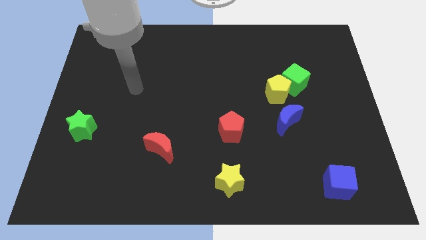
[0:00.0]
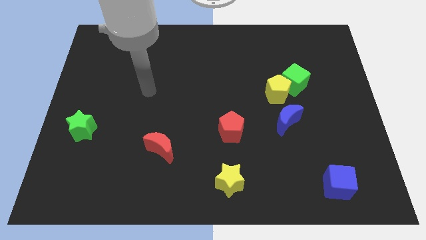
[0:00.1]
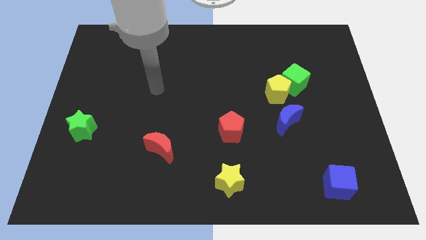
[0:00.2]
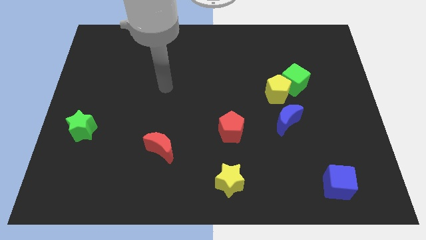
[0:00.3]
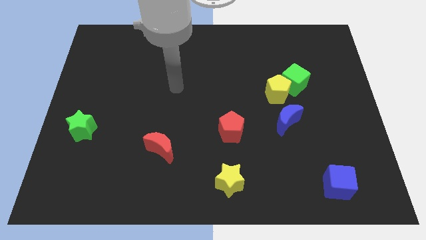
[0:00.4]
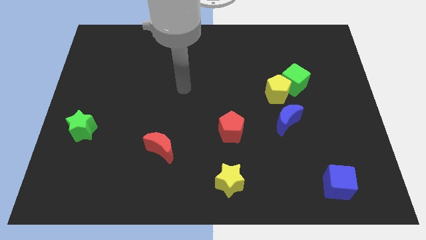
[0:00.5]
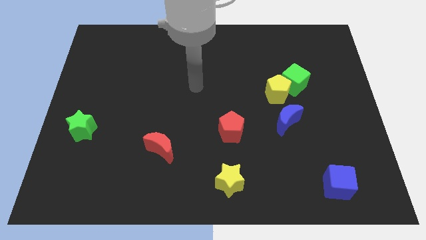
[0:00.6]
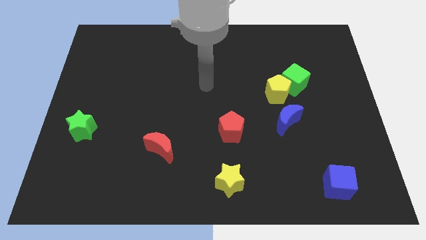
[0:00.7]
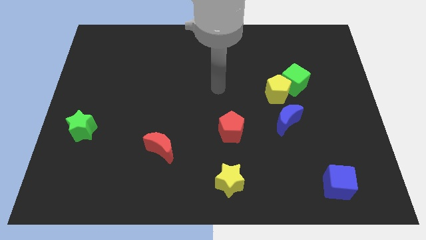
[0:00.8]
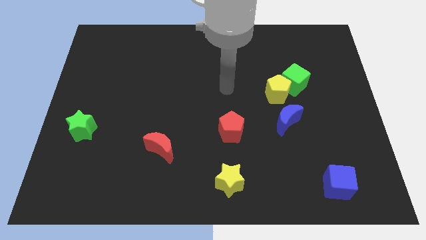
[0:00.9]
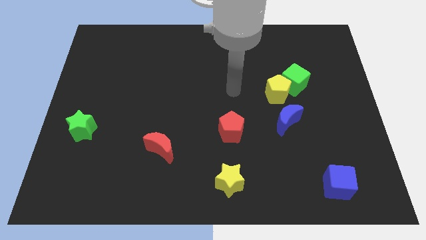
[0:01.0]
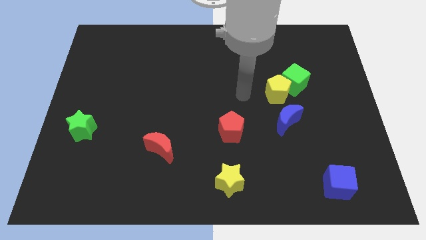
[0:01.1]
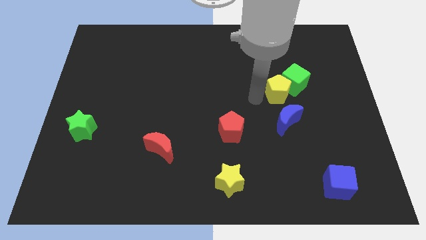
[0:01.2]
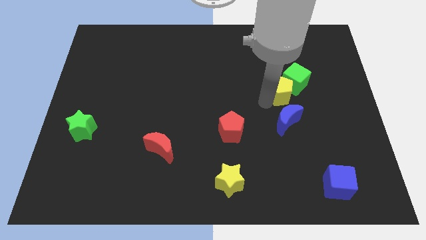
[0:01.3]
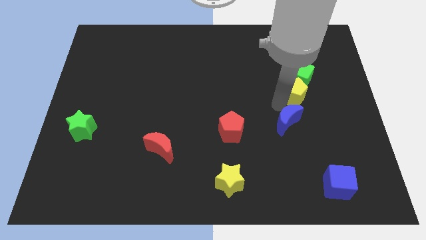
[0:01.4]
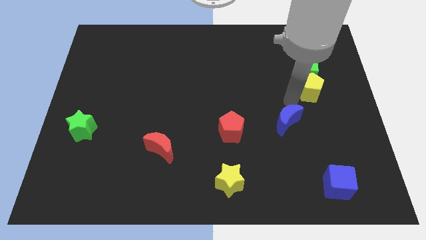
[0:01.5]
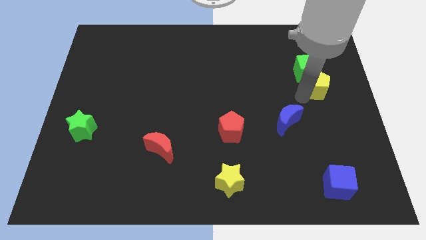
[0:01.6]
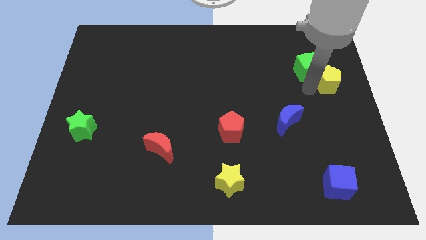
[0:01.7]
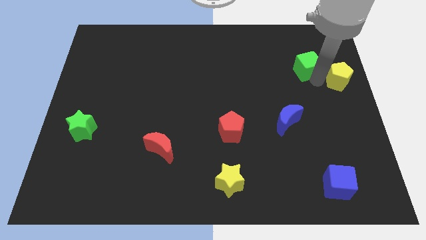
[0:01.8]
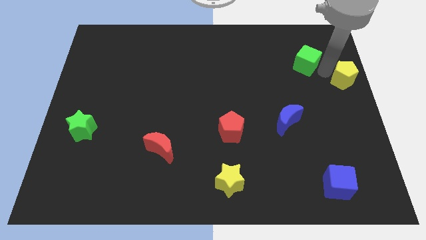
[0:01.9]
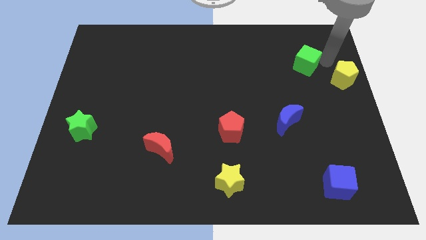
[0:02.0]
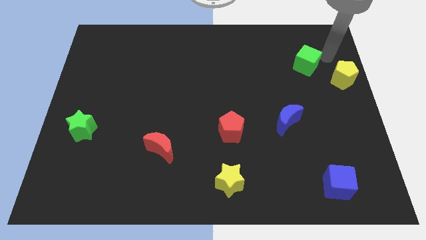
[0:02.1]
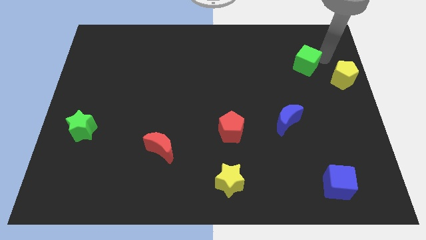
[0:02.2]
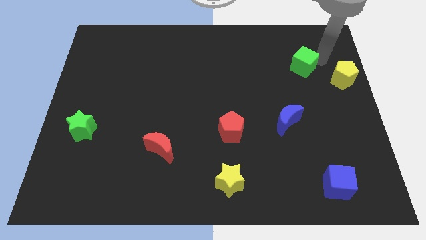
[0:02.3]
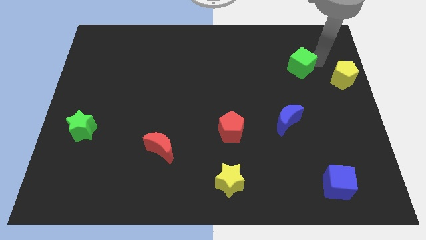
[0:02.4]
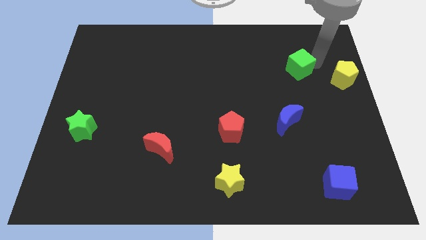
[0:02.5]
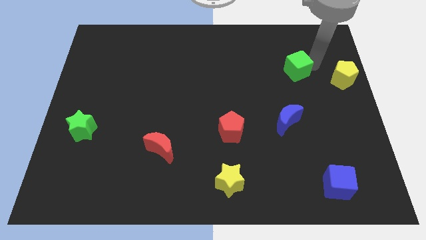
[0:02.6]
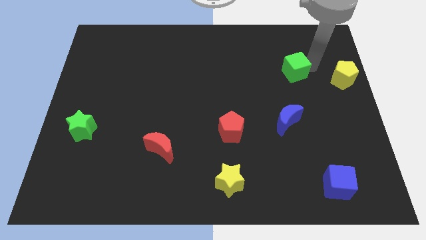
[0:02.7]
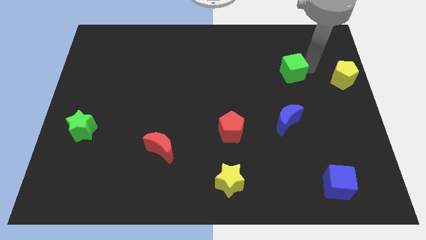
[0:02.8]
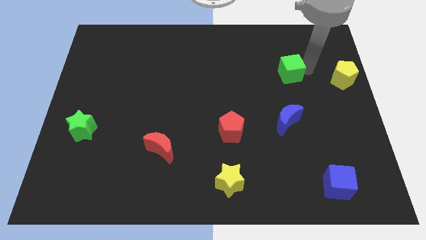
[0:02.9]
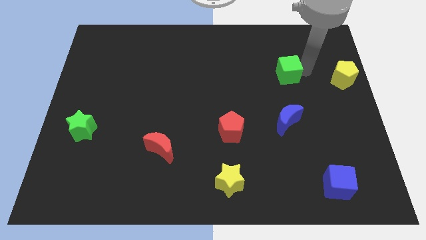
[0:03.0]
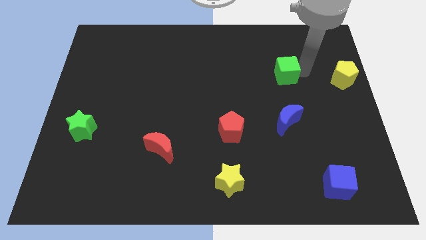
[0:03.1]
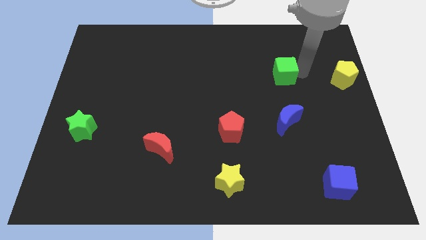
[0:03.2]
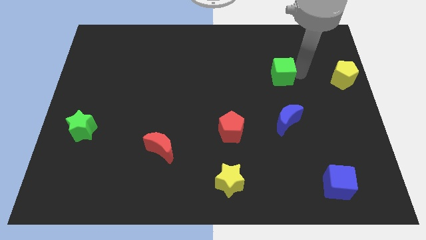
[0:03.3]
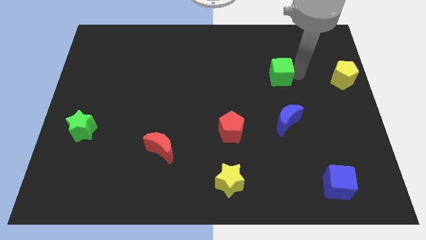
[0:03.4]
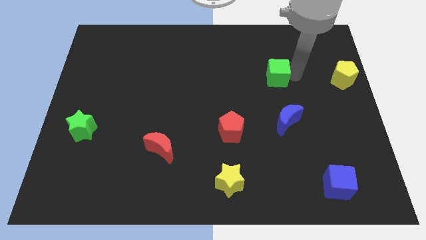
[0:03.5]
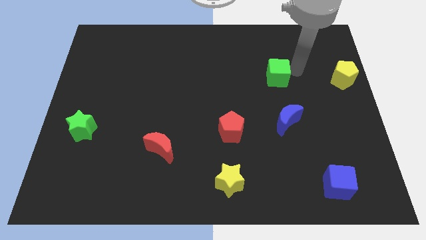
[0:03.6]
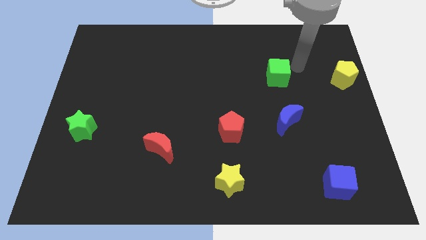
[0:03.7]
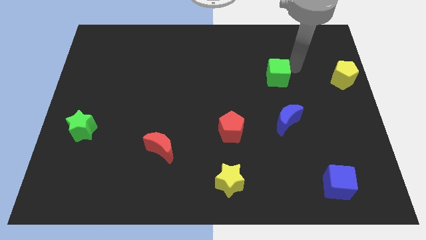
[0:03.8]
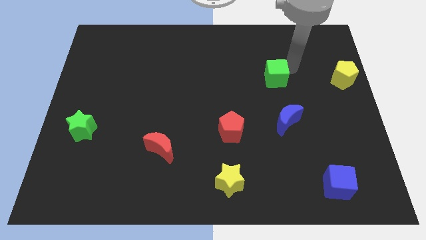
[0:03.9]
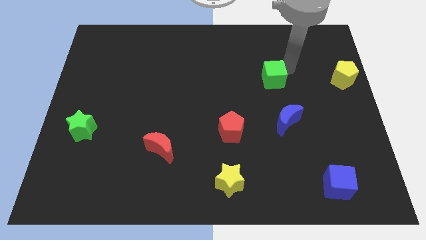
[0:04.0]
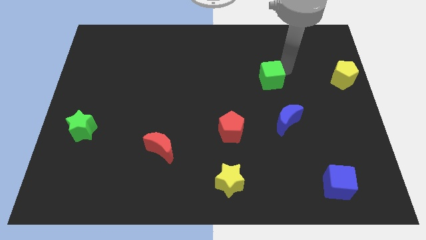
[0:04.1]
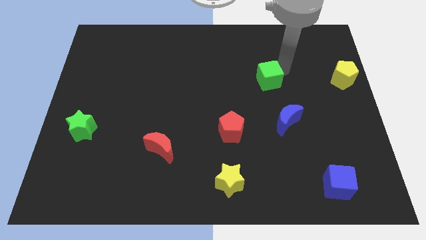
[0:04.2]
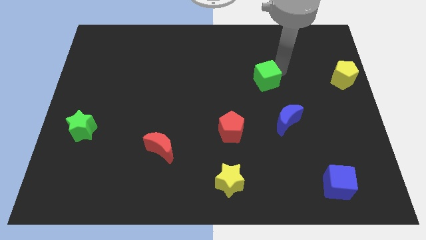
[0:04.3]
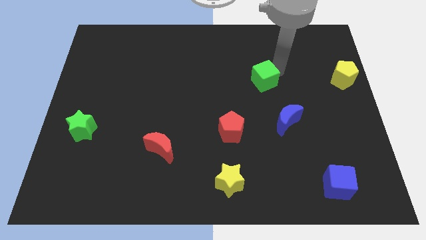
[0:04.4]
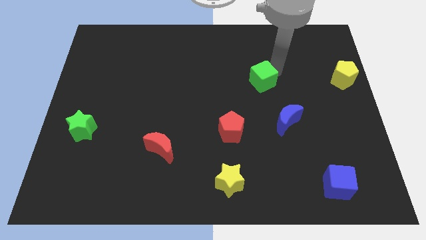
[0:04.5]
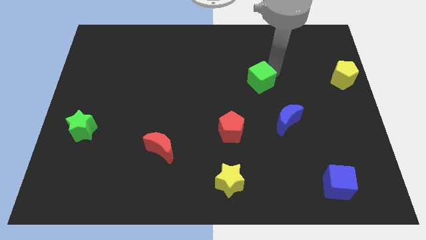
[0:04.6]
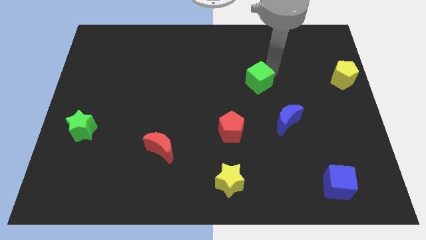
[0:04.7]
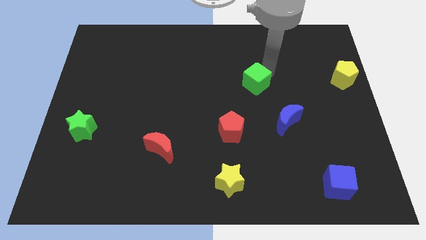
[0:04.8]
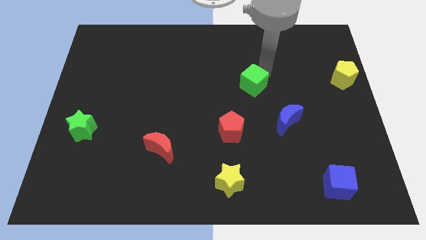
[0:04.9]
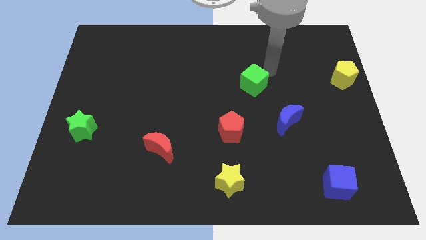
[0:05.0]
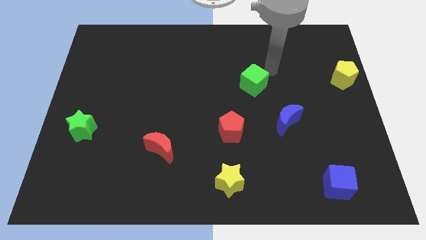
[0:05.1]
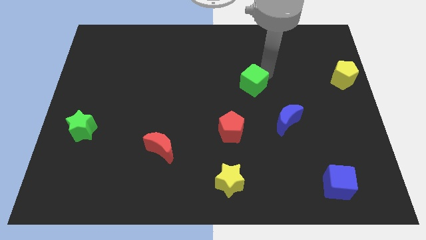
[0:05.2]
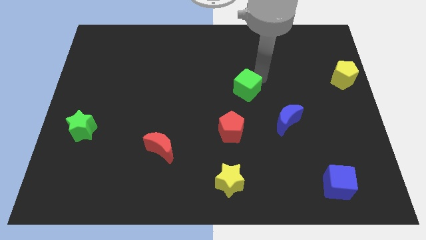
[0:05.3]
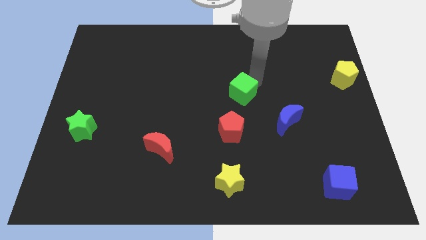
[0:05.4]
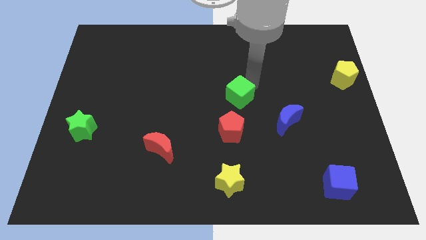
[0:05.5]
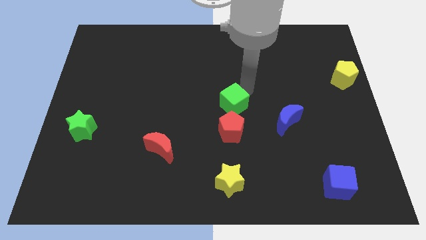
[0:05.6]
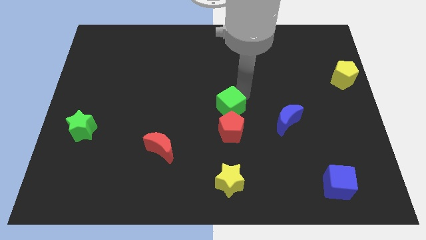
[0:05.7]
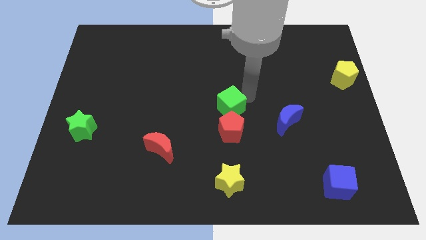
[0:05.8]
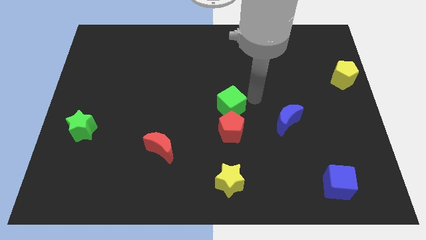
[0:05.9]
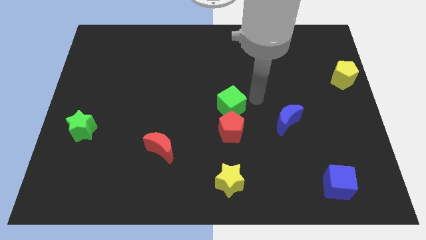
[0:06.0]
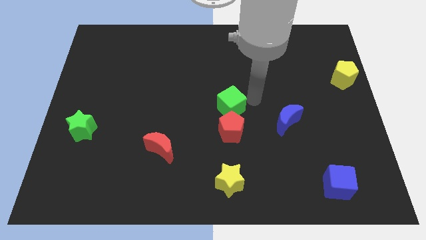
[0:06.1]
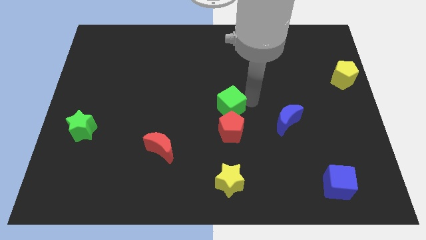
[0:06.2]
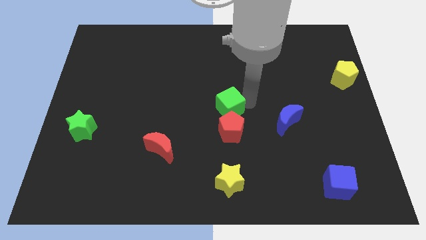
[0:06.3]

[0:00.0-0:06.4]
put the green cube to the top left side of the red pentagon

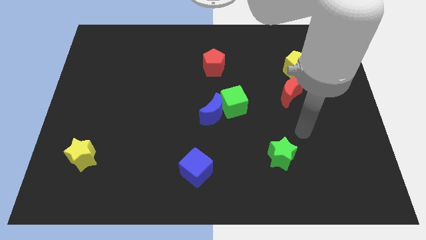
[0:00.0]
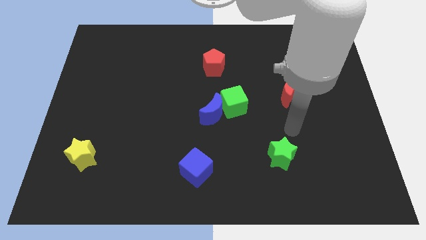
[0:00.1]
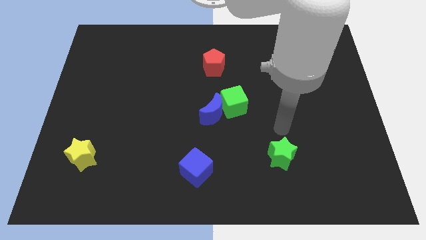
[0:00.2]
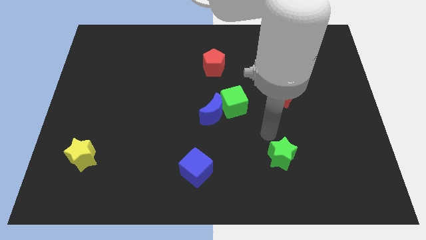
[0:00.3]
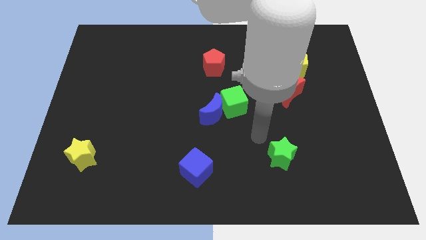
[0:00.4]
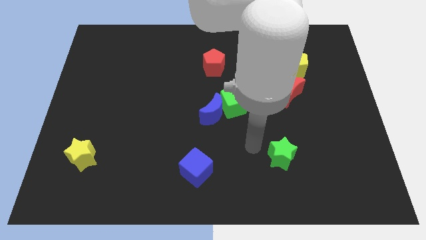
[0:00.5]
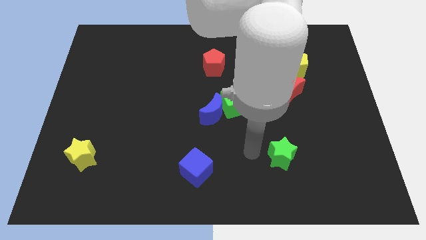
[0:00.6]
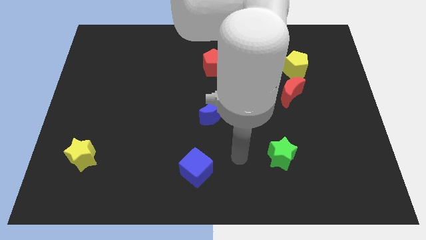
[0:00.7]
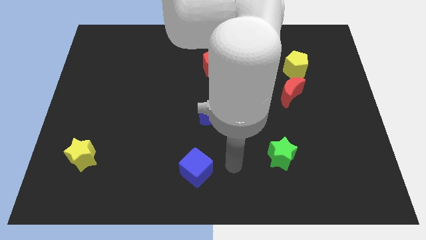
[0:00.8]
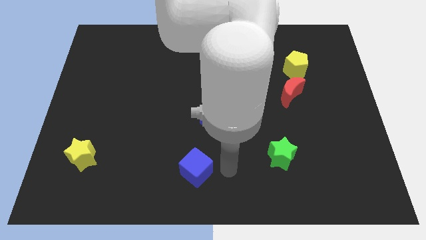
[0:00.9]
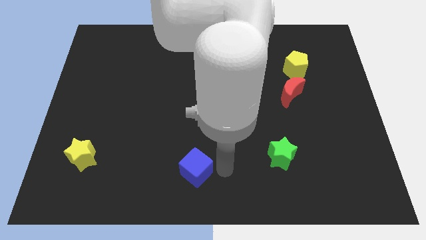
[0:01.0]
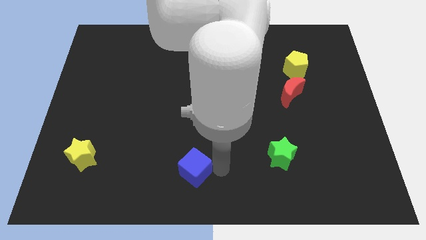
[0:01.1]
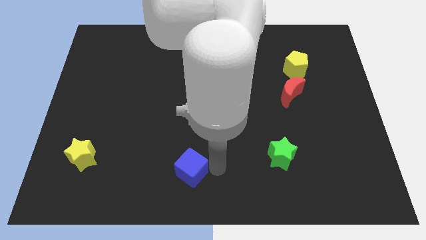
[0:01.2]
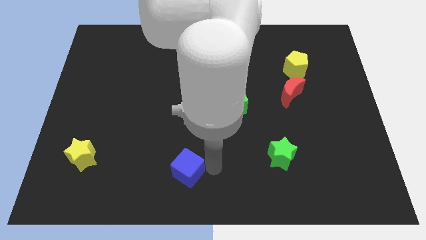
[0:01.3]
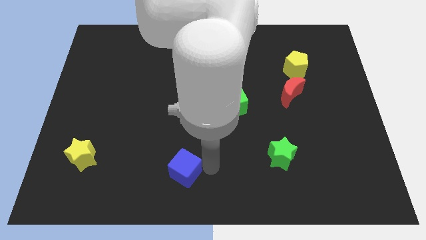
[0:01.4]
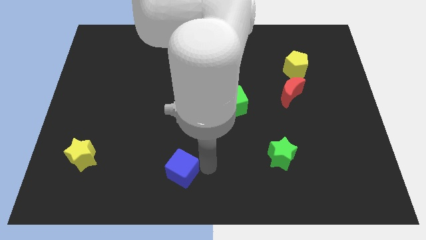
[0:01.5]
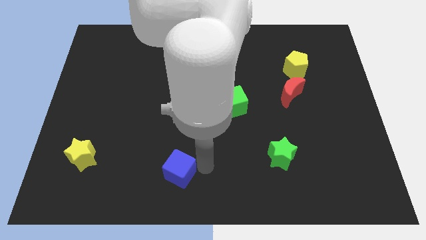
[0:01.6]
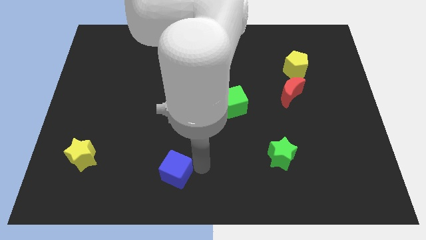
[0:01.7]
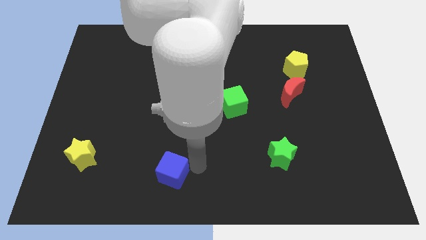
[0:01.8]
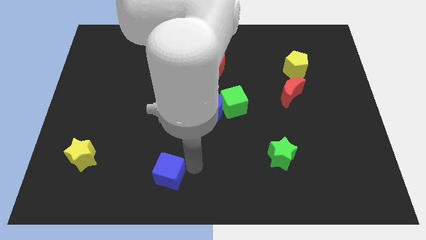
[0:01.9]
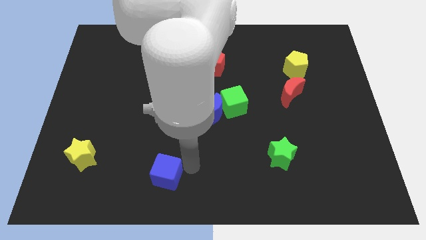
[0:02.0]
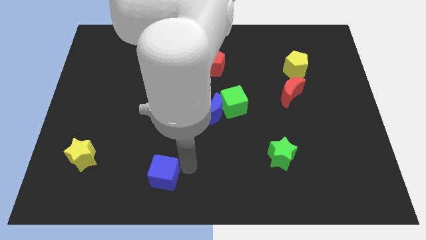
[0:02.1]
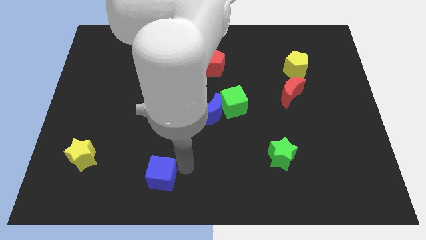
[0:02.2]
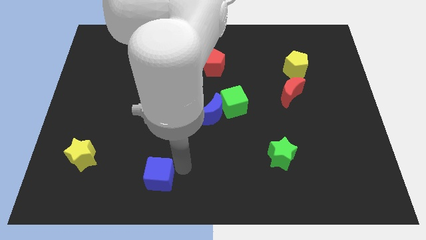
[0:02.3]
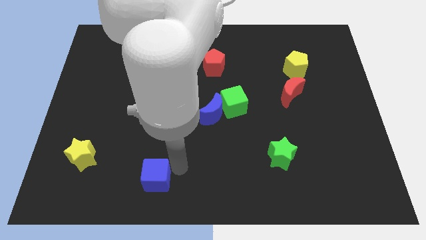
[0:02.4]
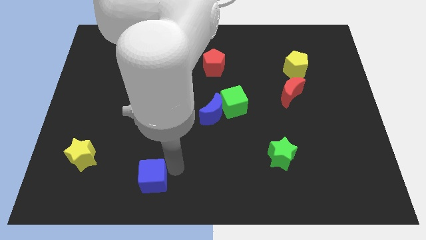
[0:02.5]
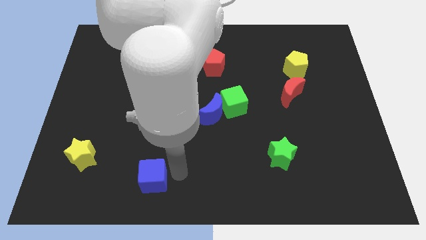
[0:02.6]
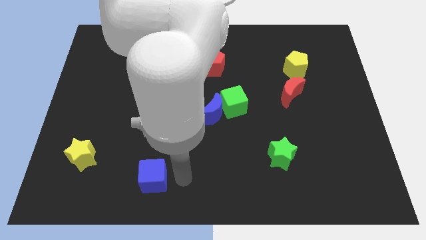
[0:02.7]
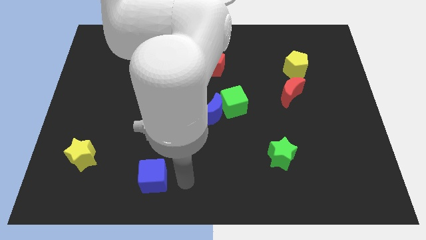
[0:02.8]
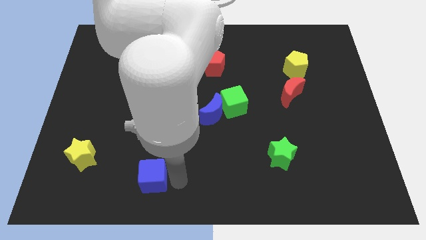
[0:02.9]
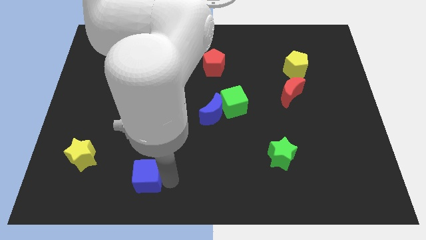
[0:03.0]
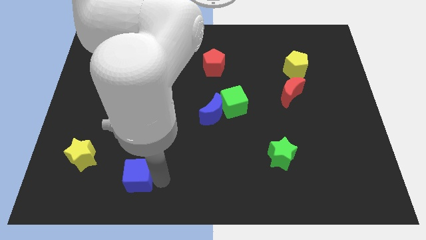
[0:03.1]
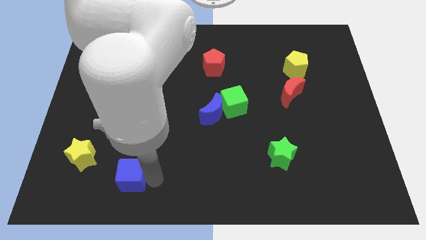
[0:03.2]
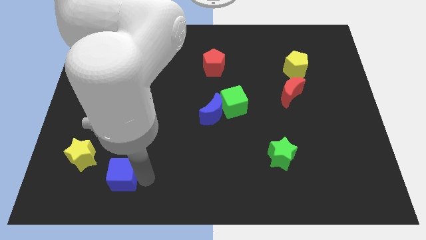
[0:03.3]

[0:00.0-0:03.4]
move the blue cube to the bottom right side of the yellow star
